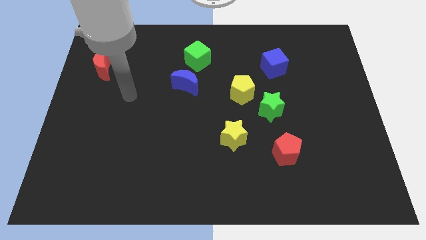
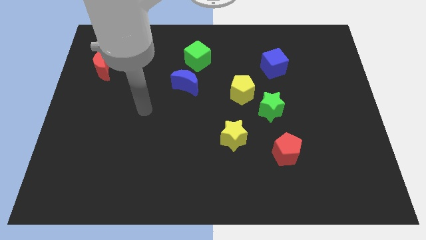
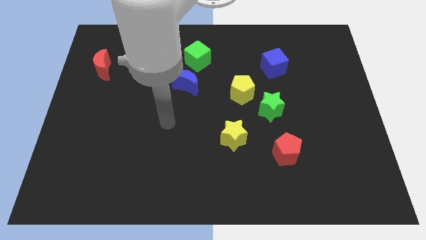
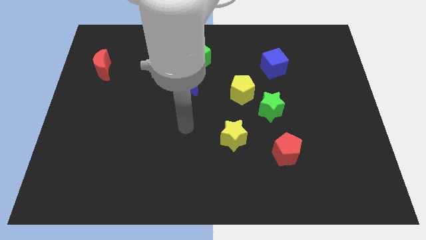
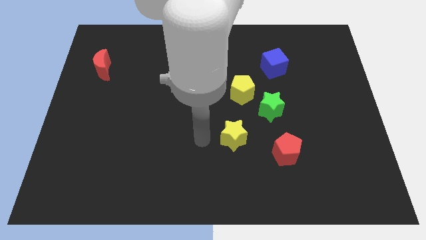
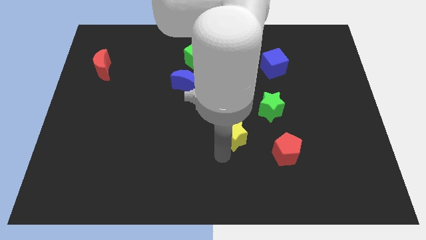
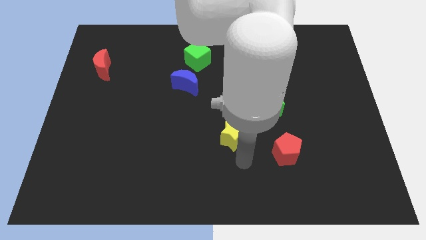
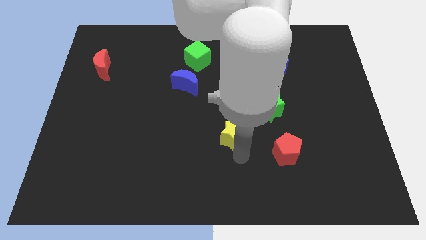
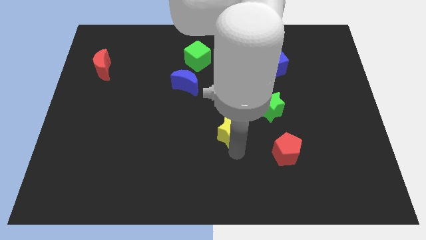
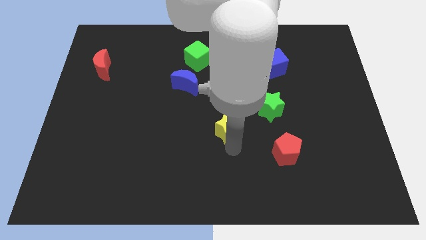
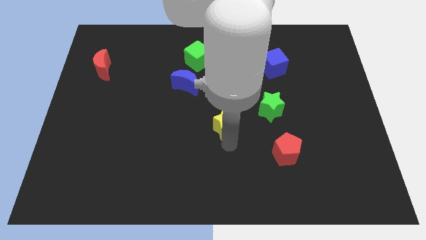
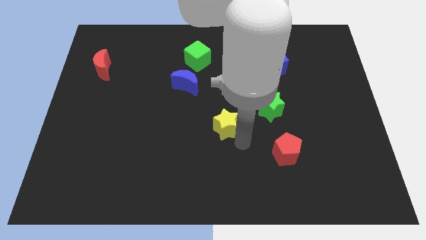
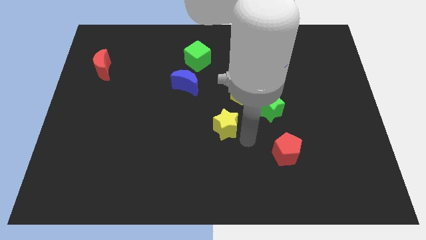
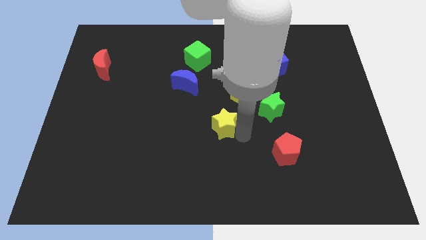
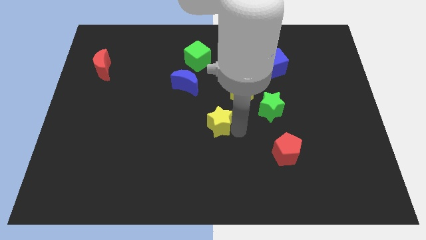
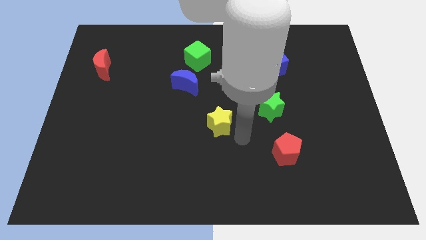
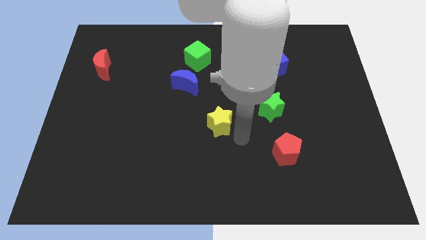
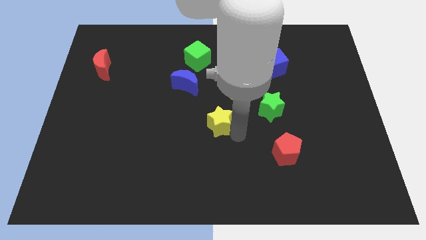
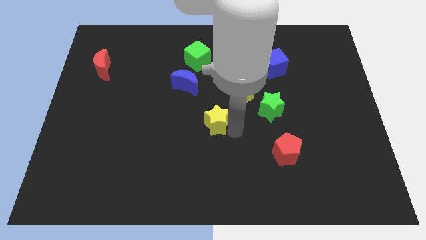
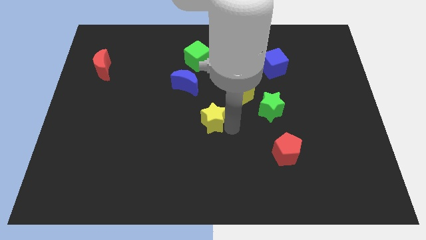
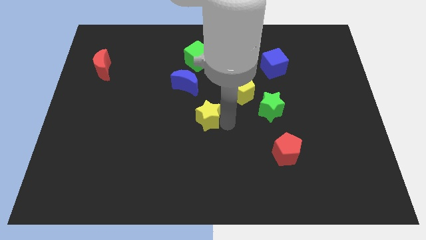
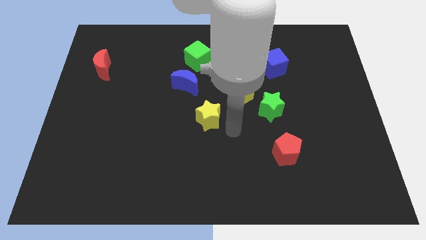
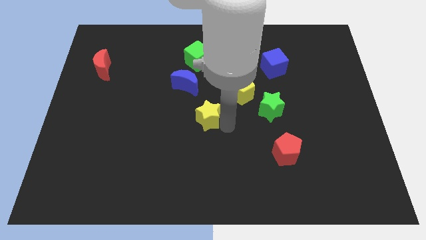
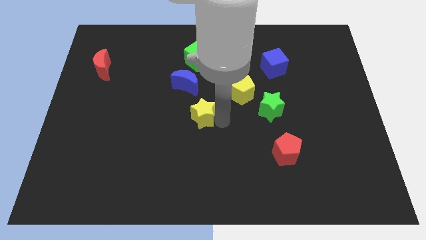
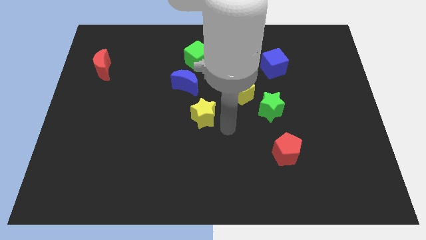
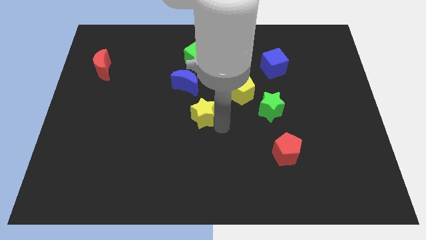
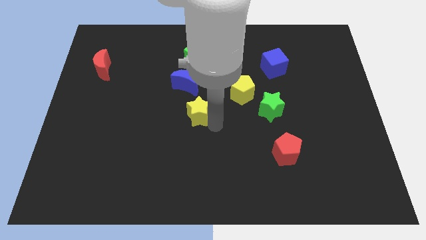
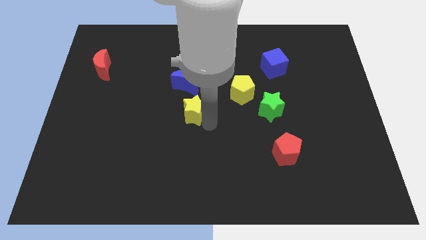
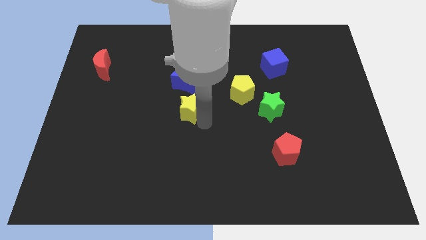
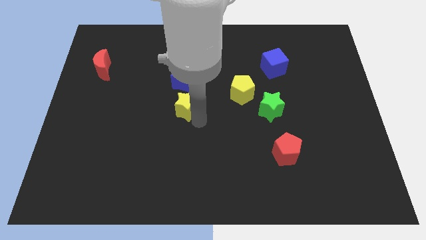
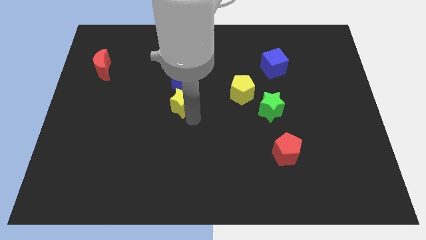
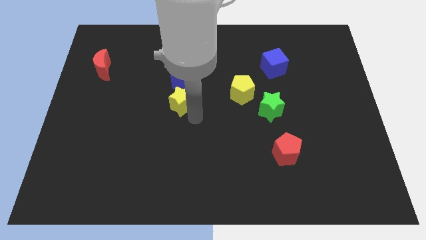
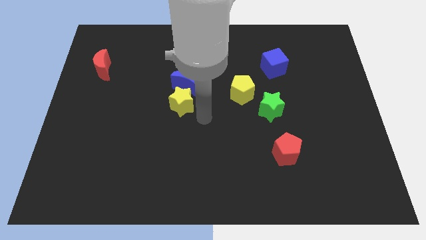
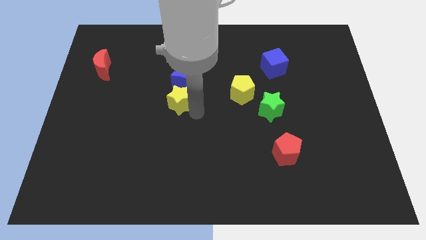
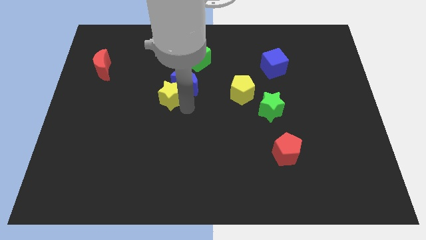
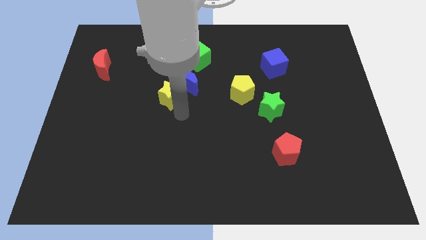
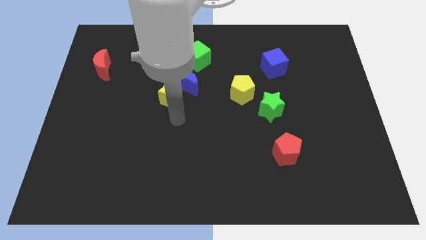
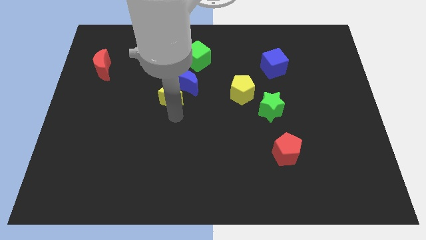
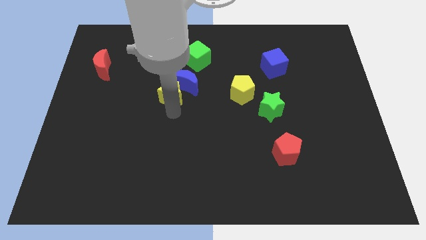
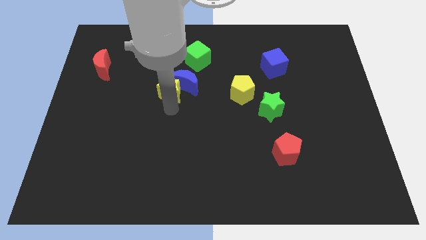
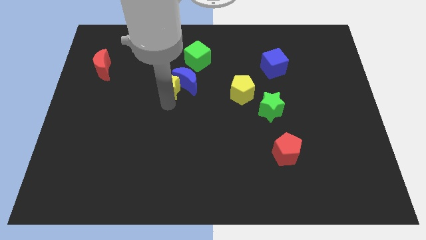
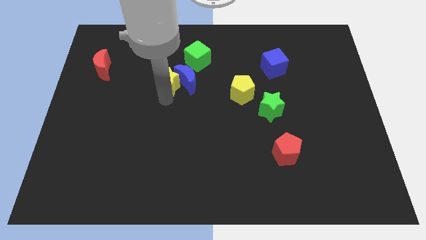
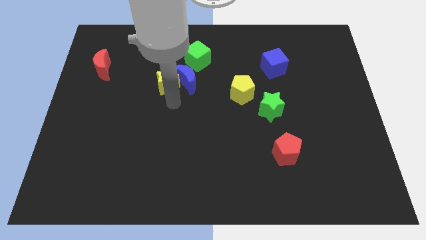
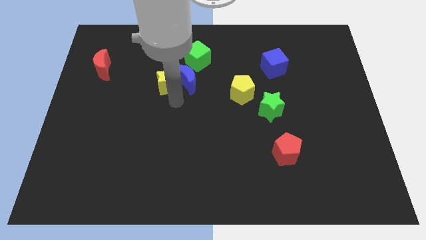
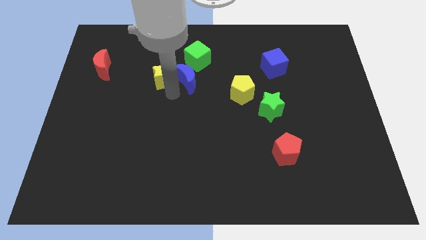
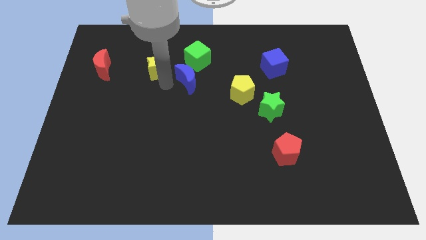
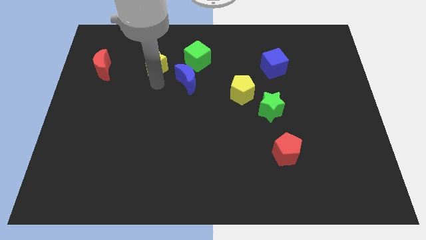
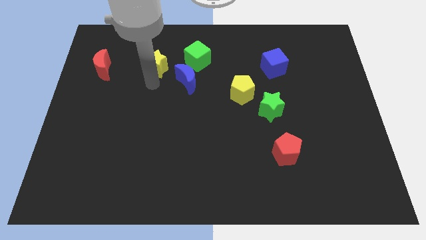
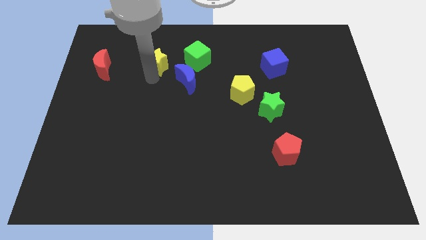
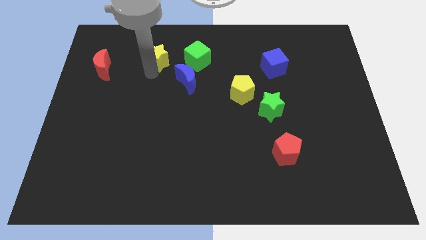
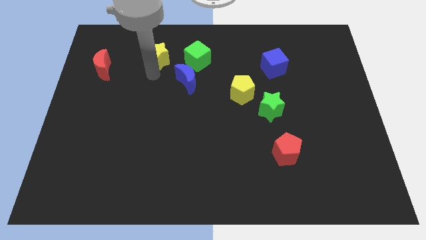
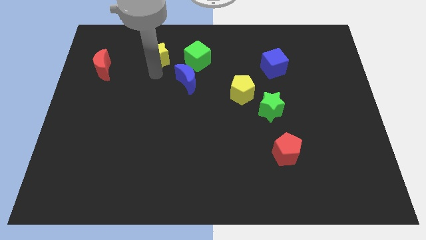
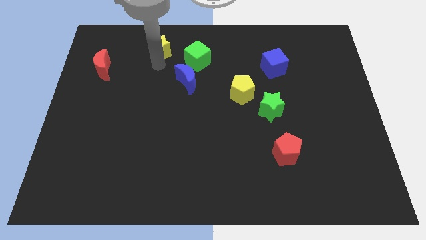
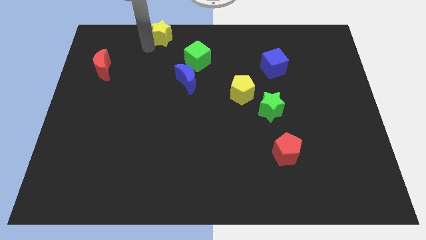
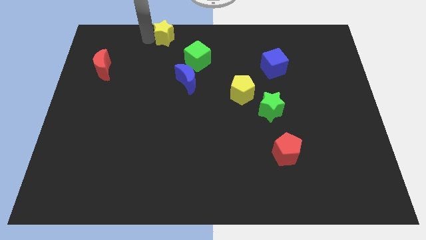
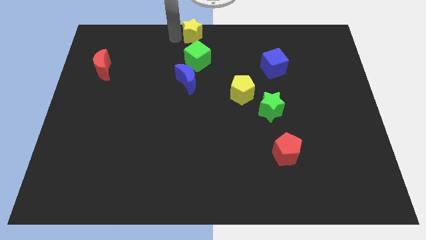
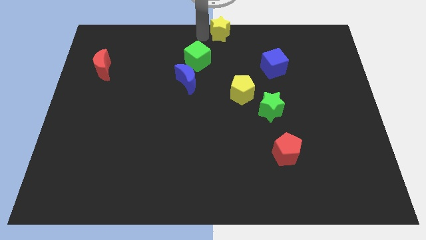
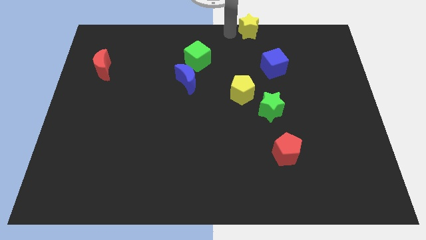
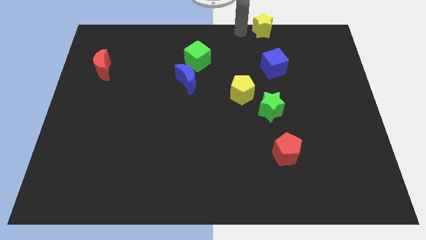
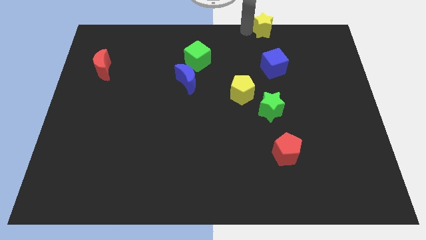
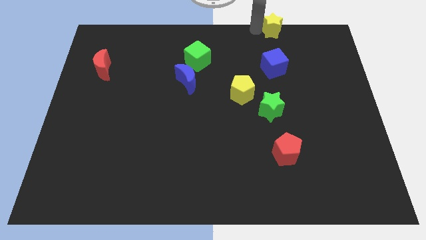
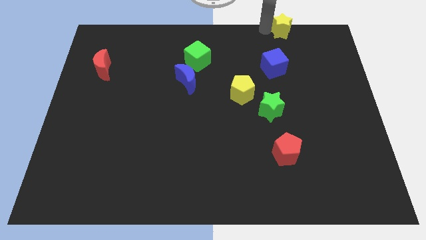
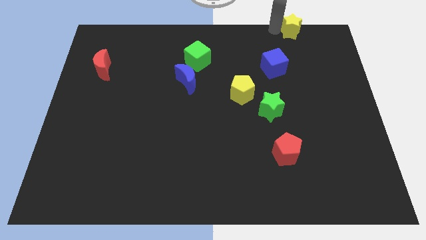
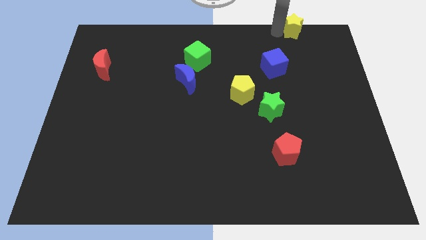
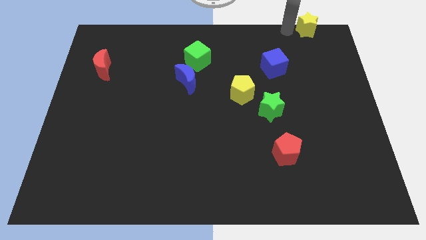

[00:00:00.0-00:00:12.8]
put the yellow star to the upper right corner

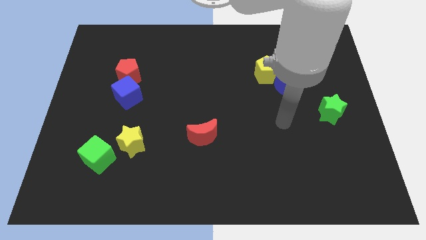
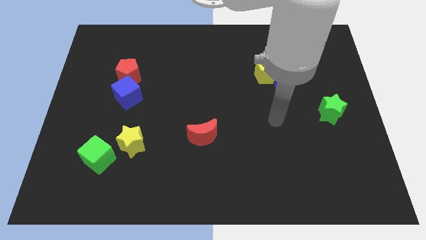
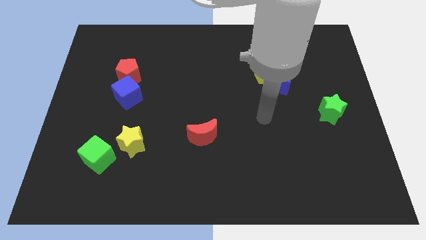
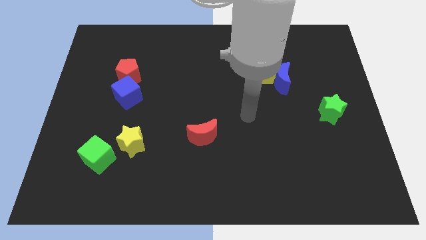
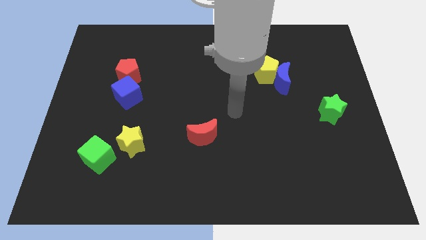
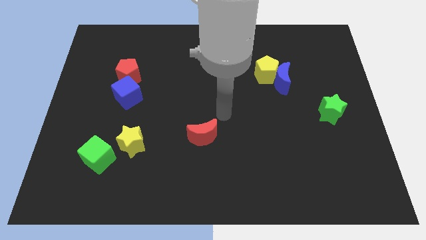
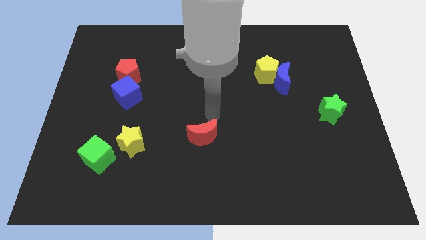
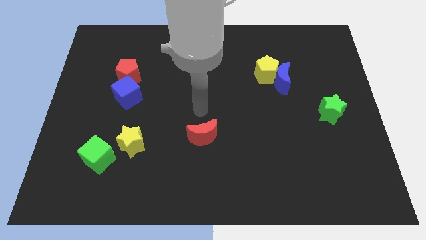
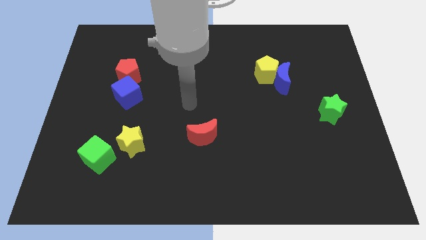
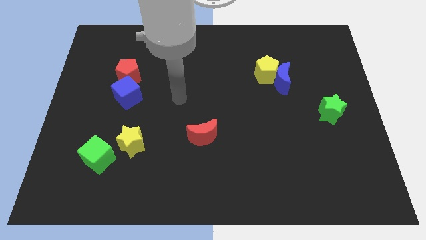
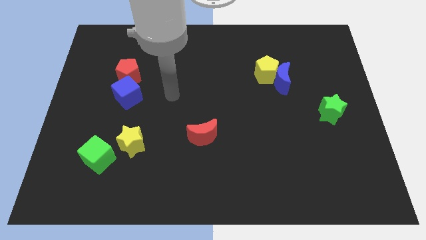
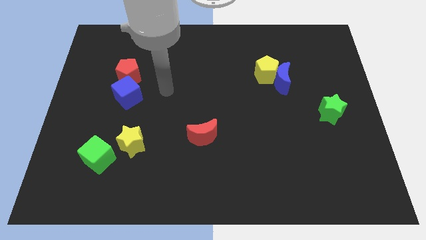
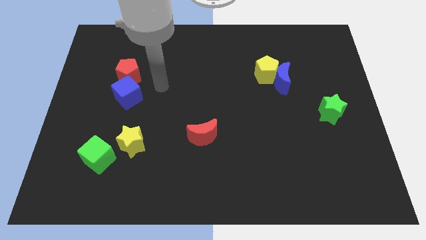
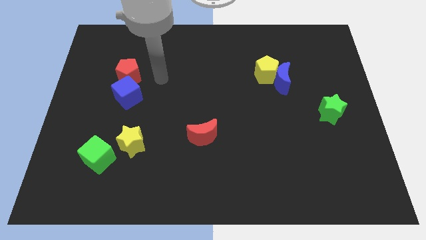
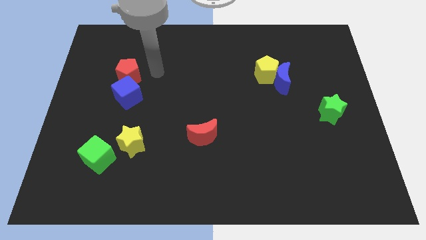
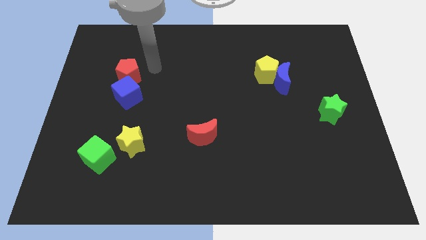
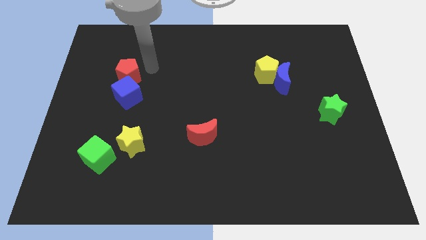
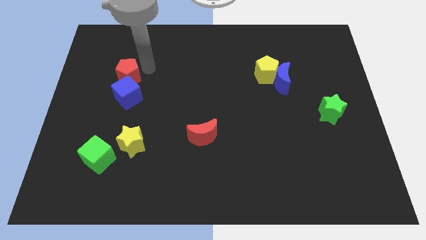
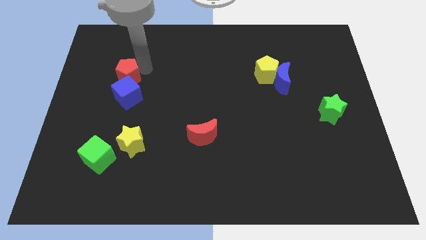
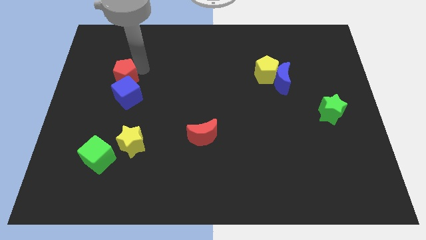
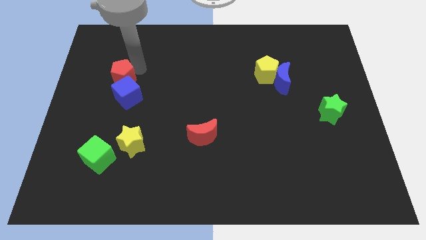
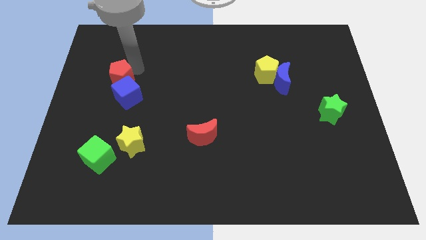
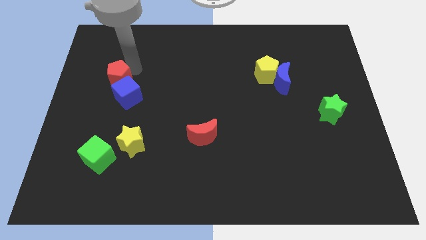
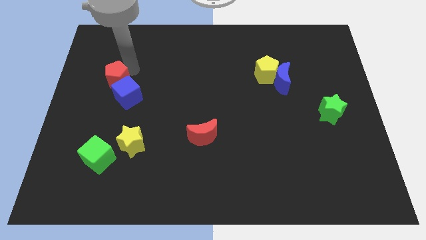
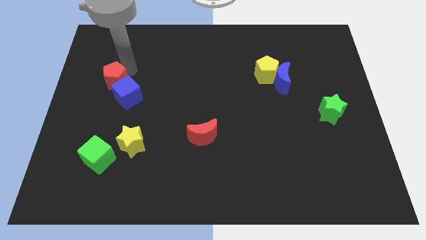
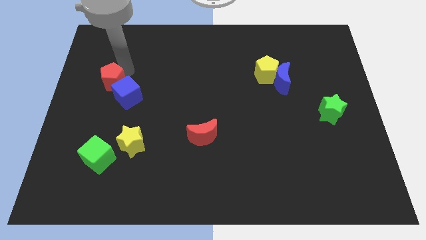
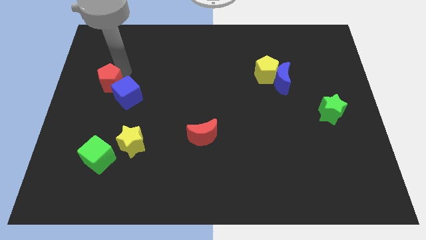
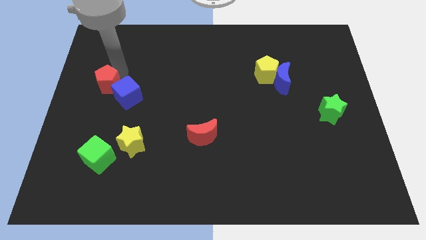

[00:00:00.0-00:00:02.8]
slide the red pentagon to the left side of the board
